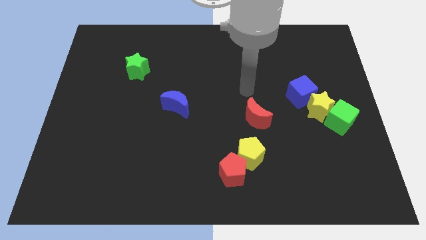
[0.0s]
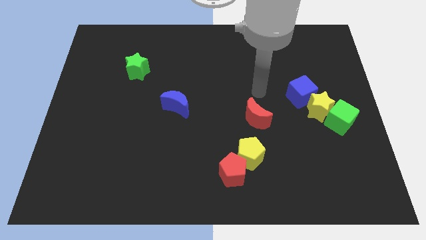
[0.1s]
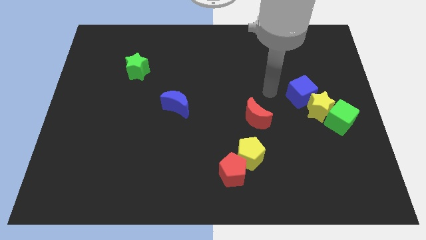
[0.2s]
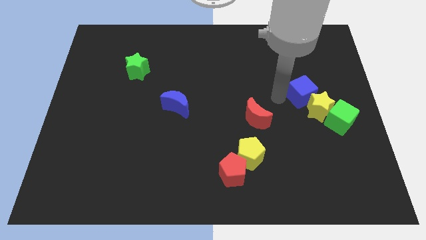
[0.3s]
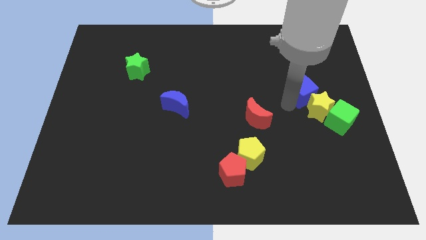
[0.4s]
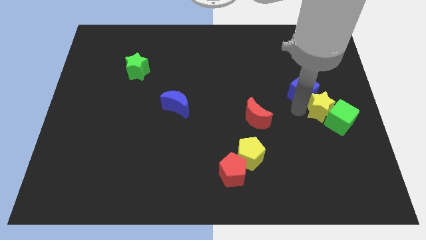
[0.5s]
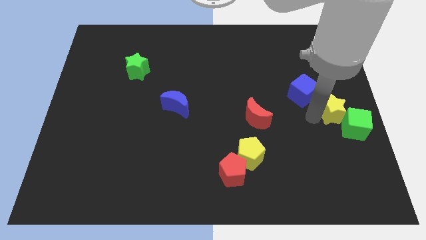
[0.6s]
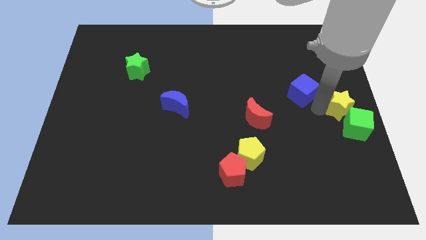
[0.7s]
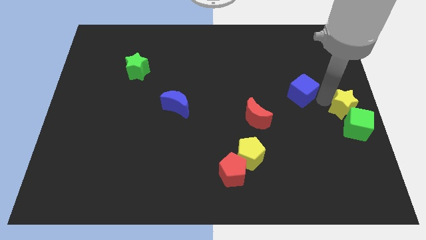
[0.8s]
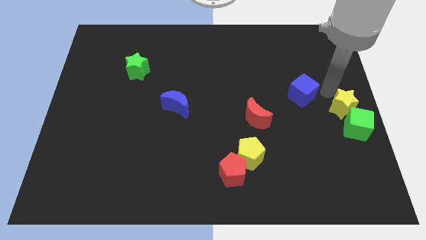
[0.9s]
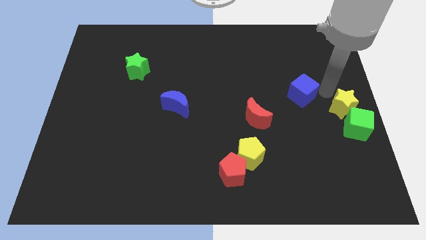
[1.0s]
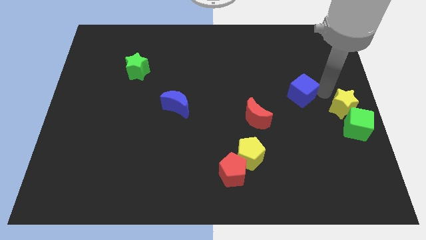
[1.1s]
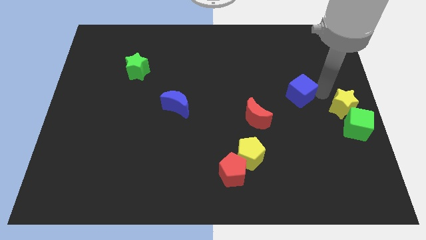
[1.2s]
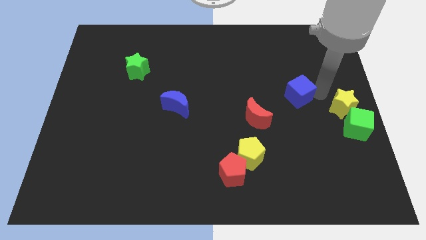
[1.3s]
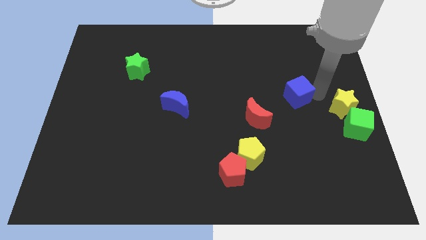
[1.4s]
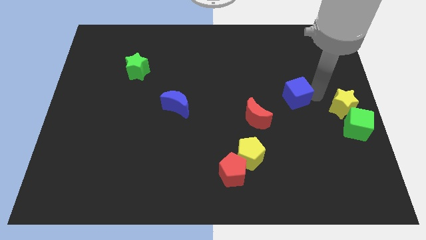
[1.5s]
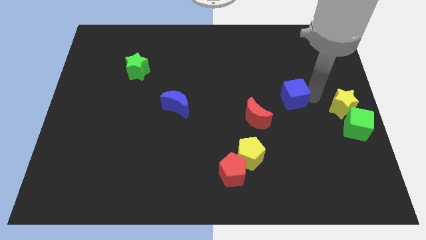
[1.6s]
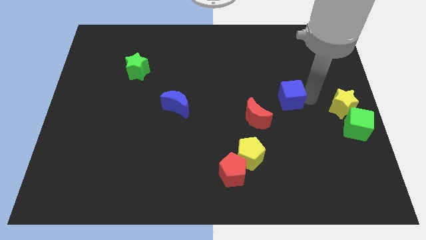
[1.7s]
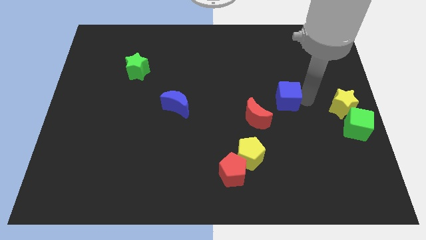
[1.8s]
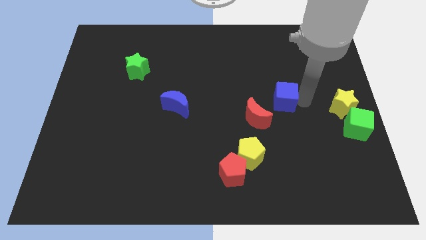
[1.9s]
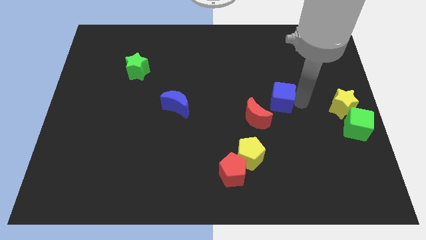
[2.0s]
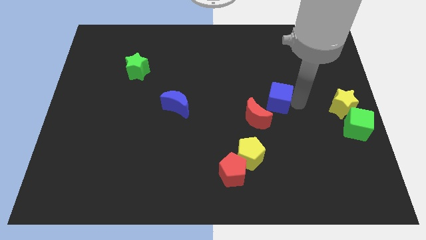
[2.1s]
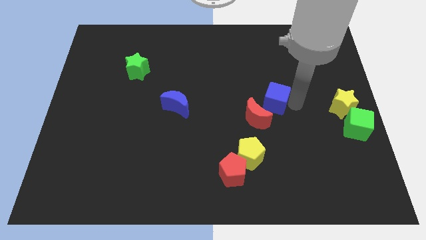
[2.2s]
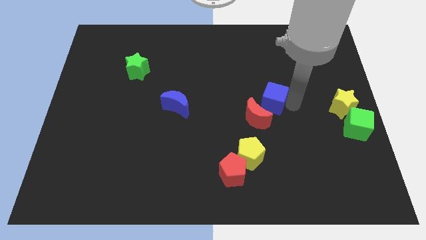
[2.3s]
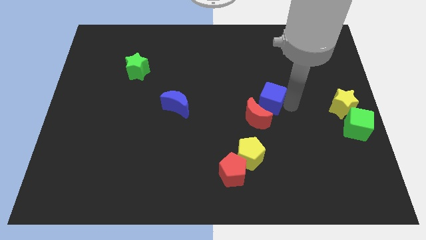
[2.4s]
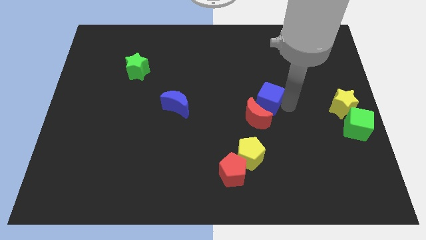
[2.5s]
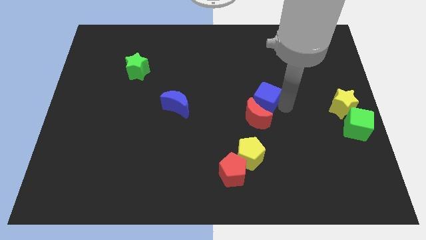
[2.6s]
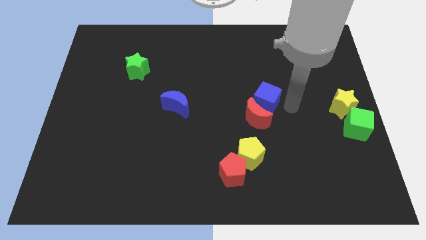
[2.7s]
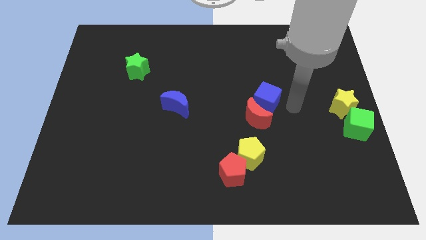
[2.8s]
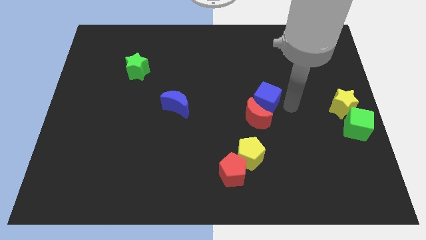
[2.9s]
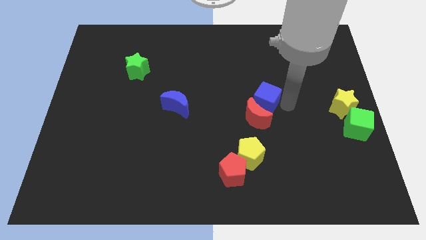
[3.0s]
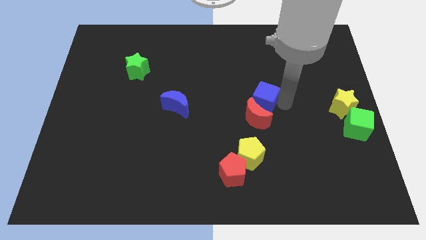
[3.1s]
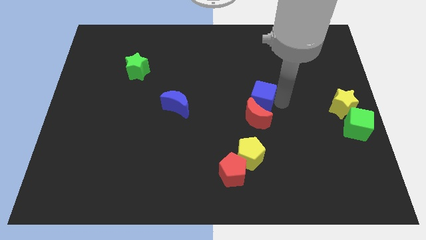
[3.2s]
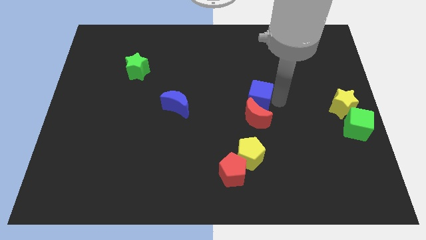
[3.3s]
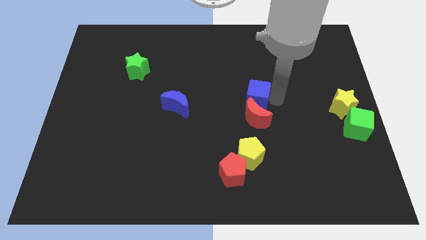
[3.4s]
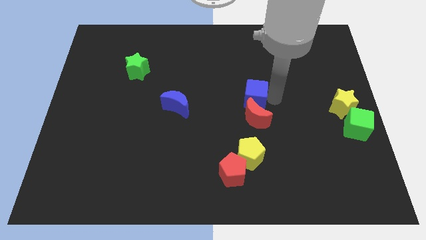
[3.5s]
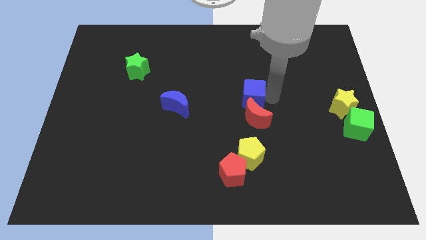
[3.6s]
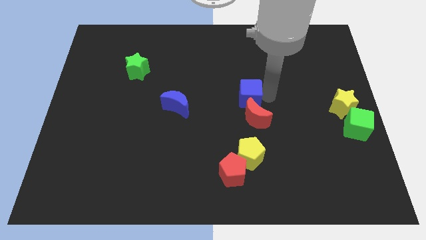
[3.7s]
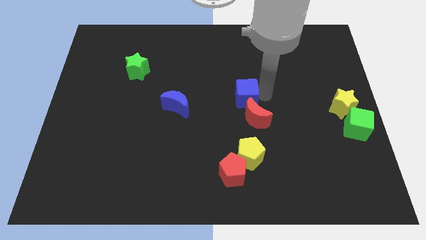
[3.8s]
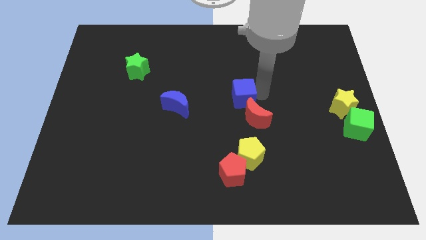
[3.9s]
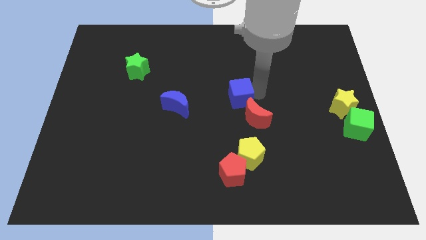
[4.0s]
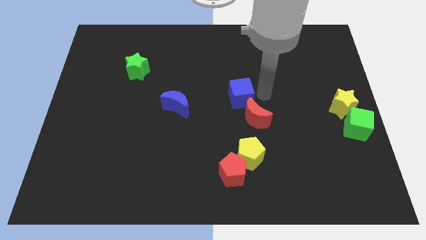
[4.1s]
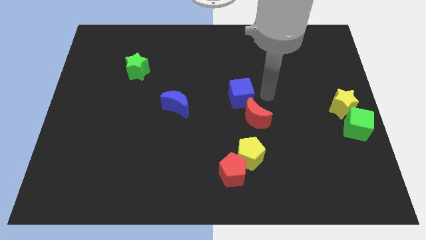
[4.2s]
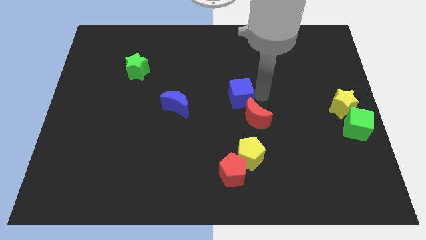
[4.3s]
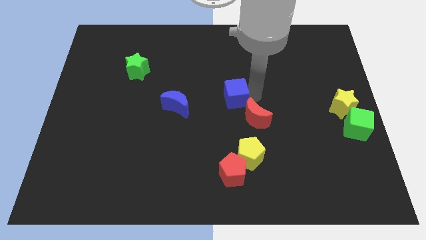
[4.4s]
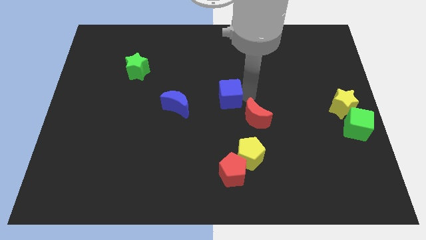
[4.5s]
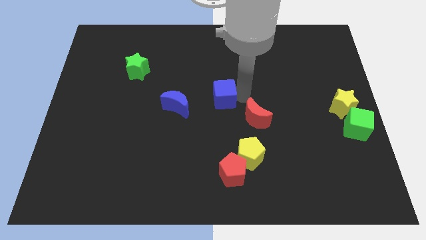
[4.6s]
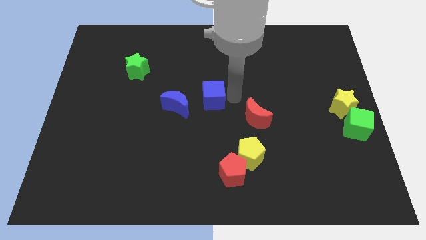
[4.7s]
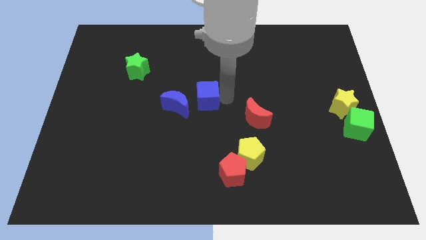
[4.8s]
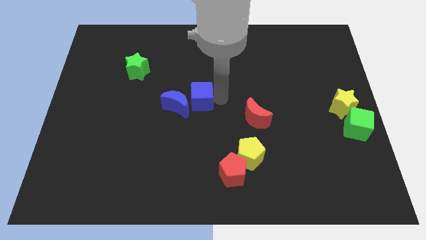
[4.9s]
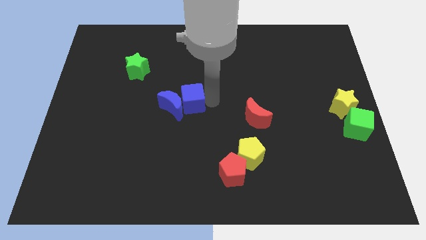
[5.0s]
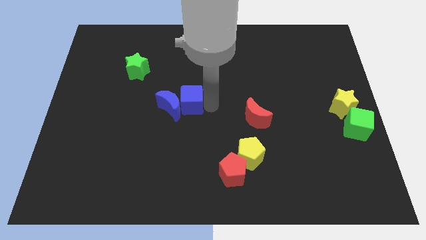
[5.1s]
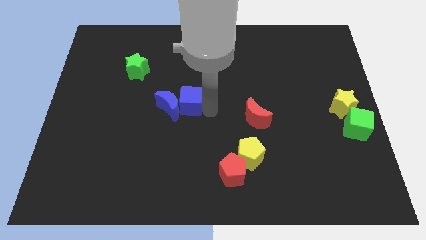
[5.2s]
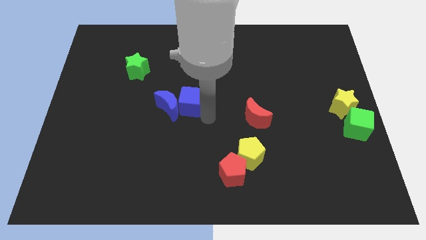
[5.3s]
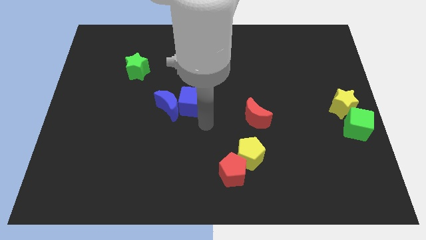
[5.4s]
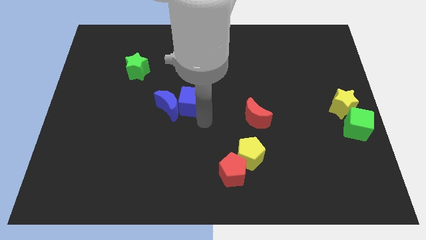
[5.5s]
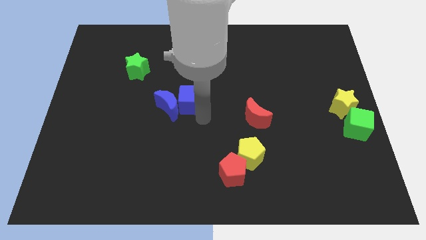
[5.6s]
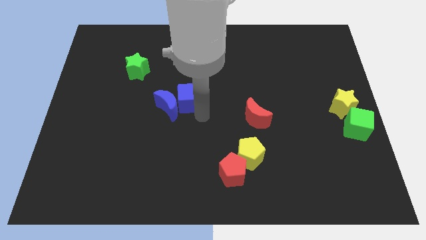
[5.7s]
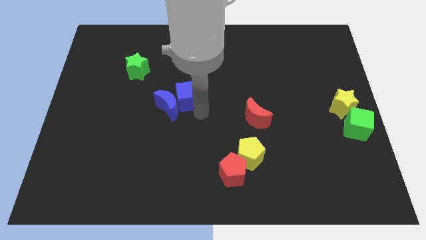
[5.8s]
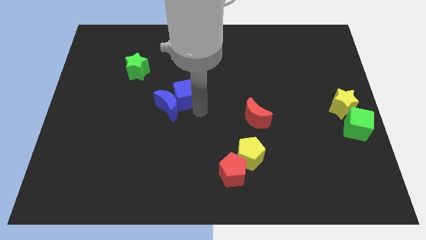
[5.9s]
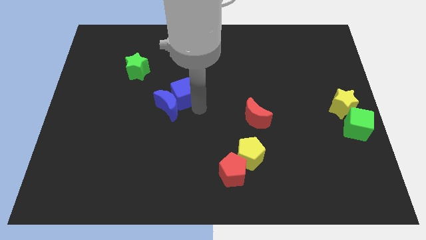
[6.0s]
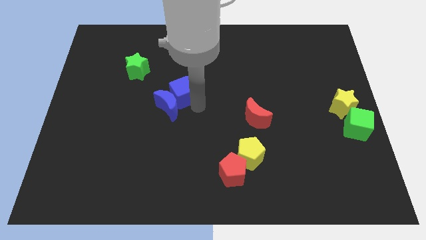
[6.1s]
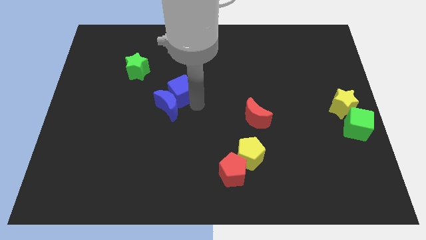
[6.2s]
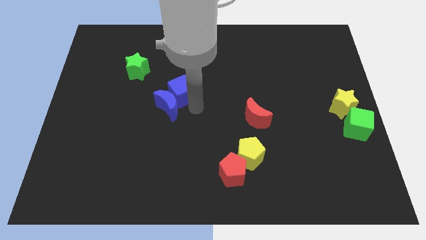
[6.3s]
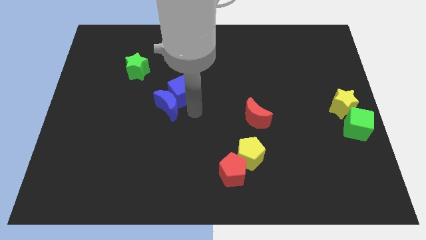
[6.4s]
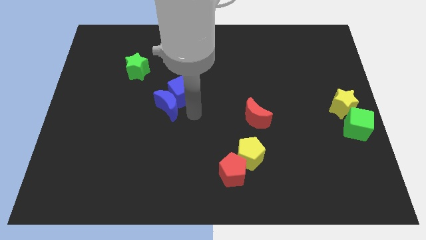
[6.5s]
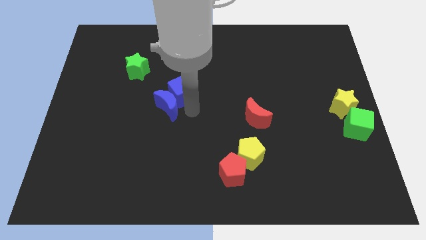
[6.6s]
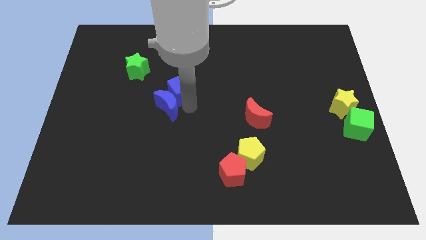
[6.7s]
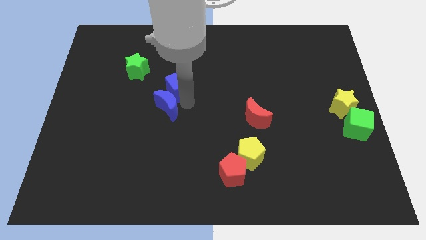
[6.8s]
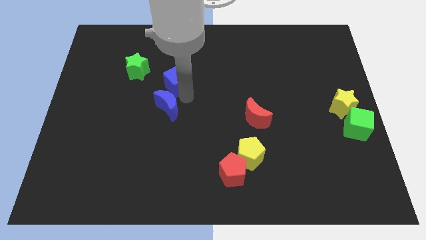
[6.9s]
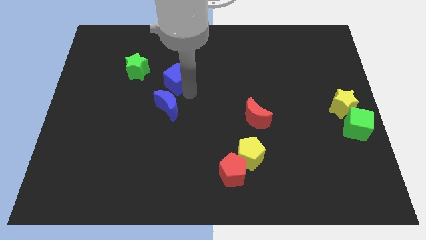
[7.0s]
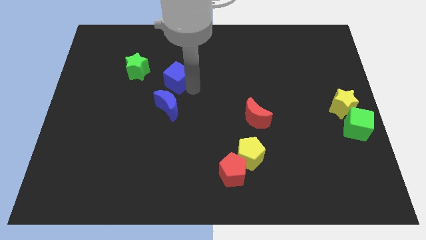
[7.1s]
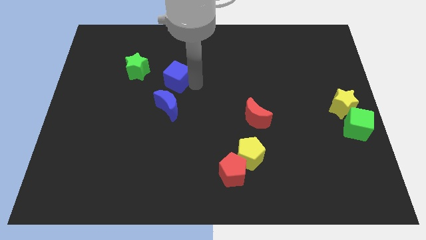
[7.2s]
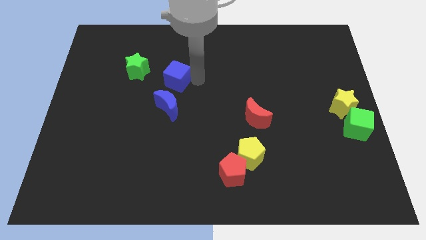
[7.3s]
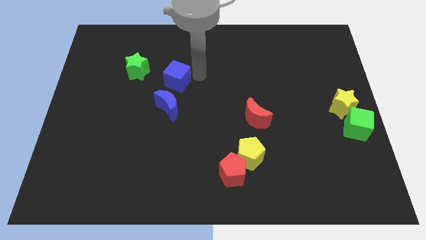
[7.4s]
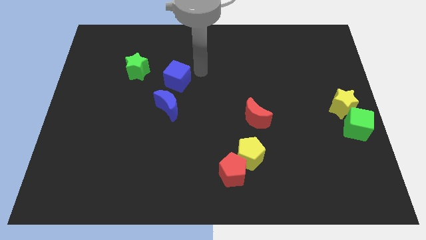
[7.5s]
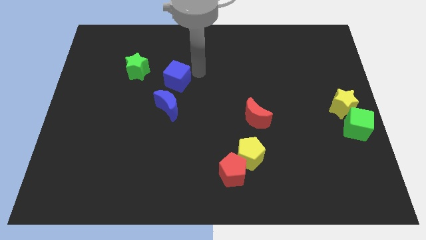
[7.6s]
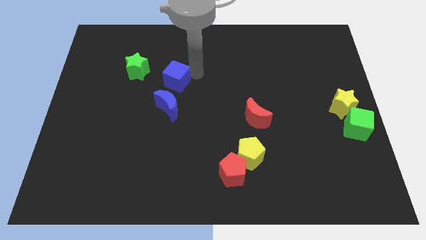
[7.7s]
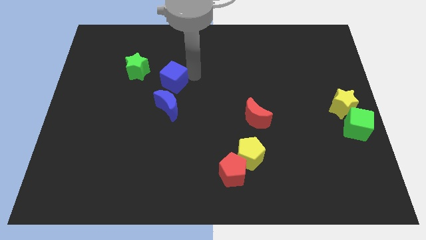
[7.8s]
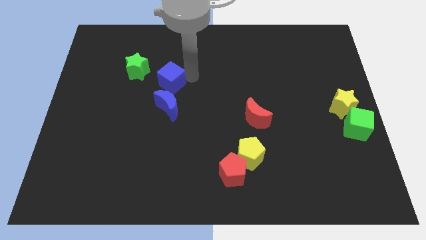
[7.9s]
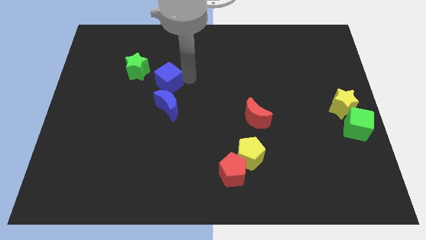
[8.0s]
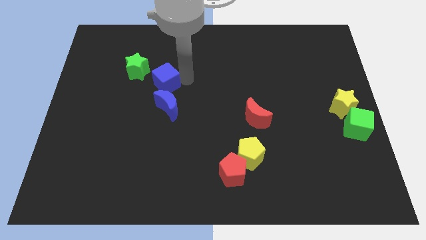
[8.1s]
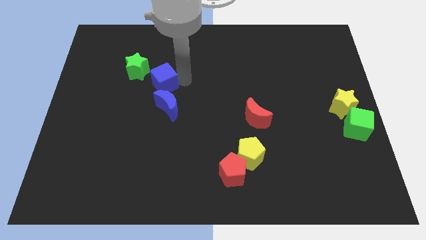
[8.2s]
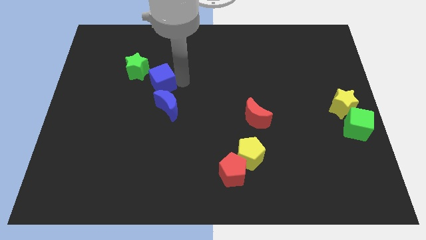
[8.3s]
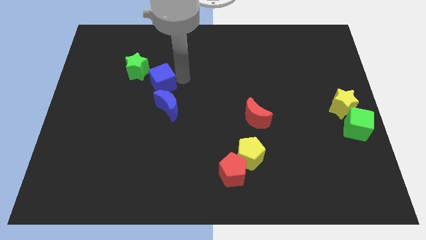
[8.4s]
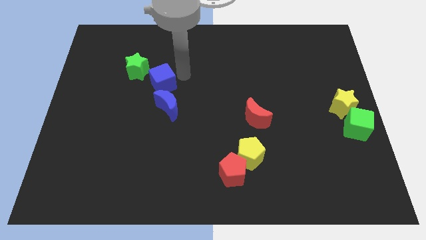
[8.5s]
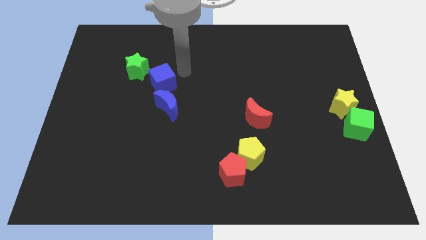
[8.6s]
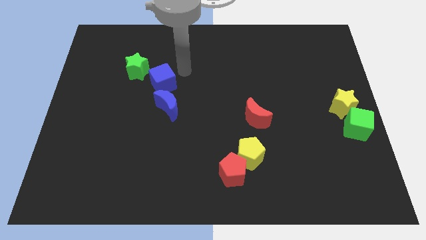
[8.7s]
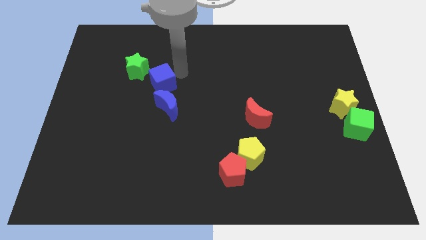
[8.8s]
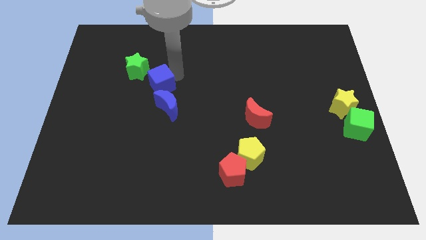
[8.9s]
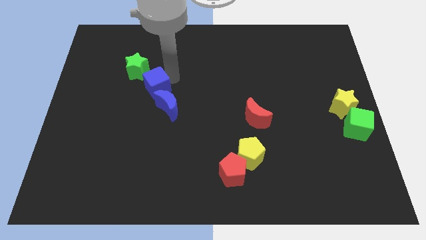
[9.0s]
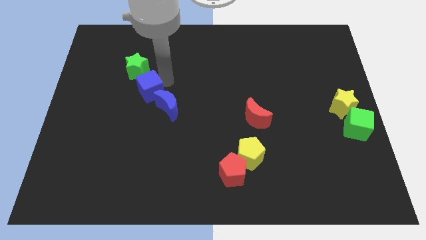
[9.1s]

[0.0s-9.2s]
push the blue cube to the bottom of the green star
